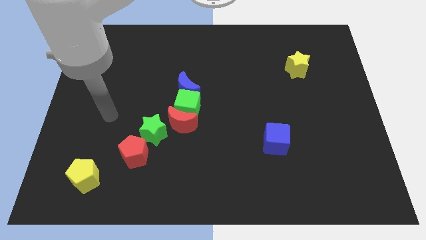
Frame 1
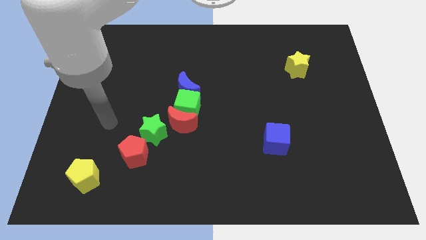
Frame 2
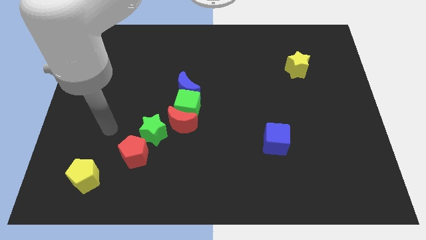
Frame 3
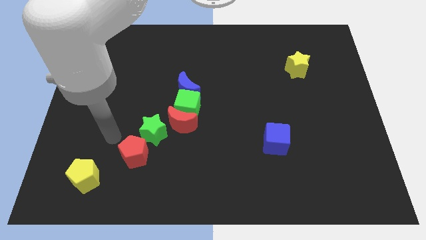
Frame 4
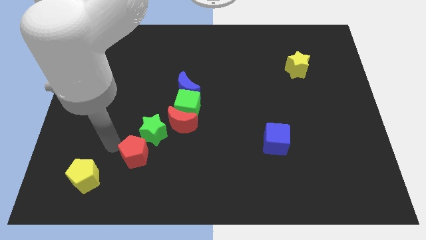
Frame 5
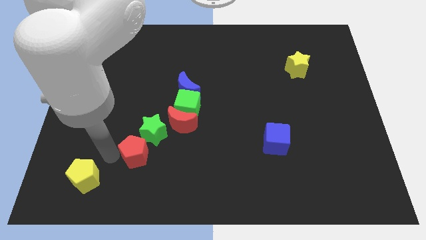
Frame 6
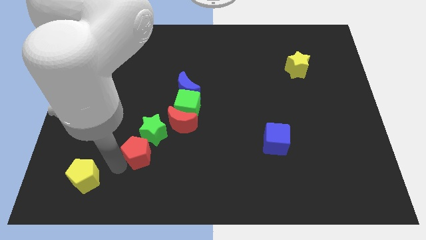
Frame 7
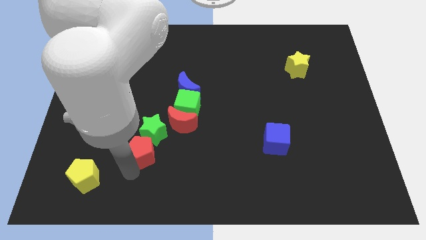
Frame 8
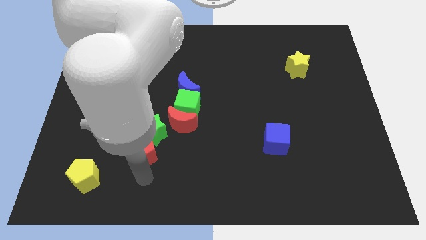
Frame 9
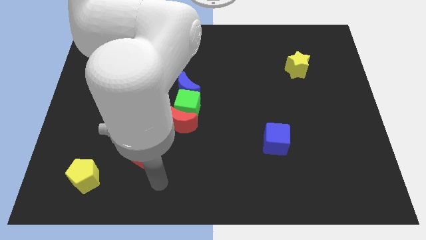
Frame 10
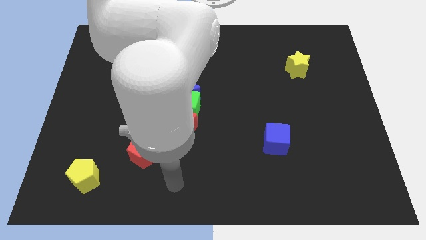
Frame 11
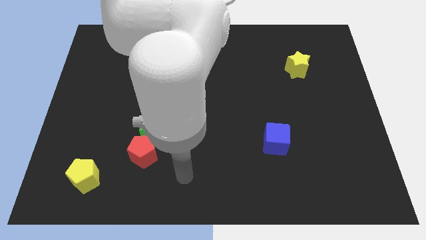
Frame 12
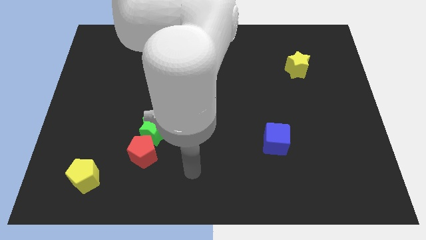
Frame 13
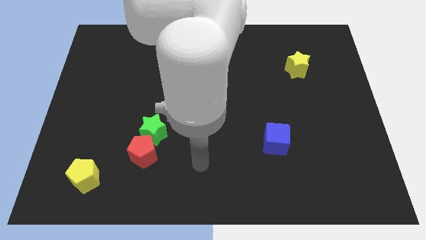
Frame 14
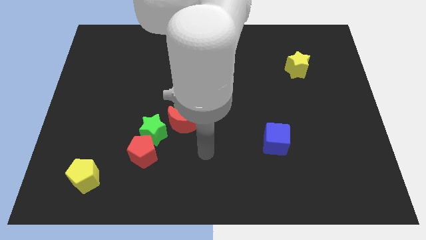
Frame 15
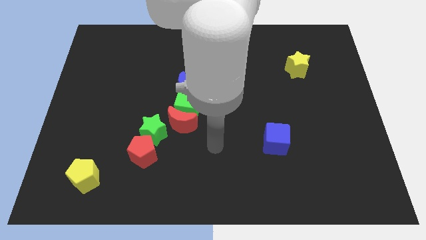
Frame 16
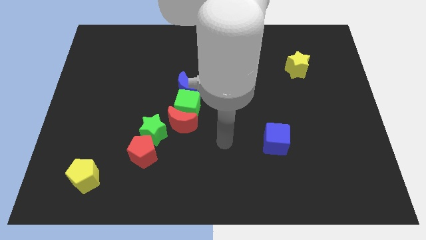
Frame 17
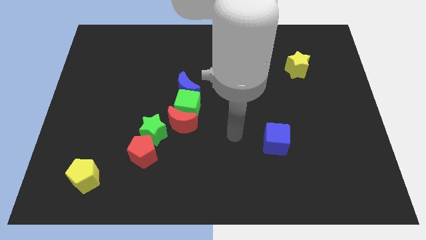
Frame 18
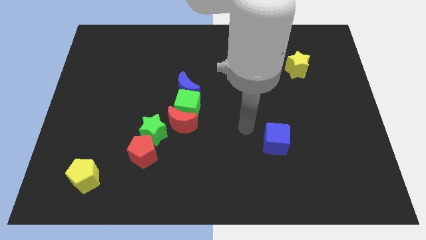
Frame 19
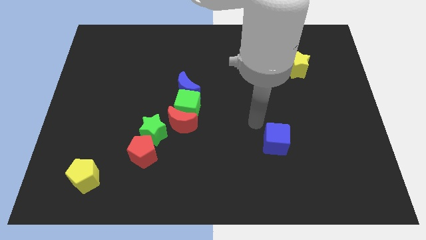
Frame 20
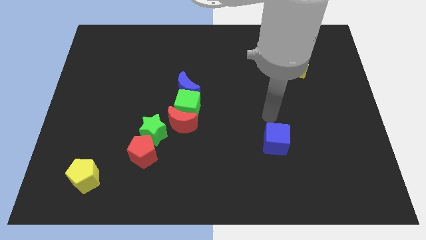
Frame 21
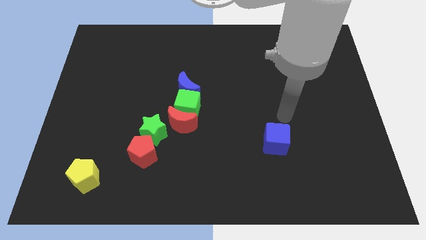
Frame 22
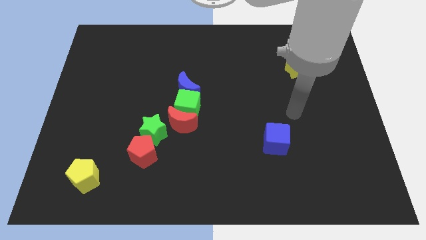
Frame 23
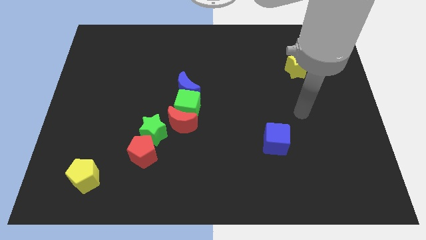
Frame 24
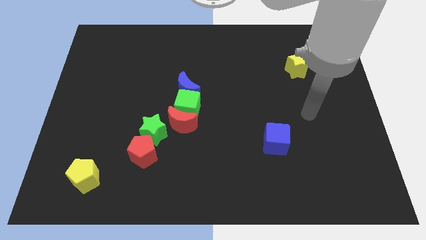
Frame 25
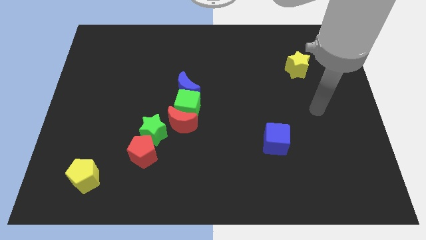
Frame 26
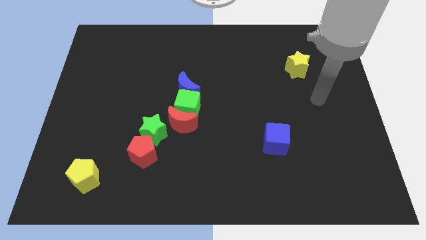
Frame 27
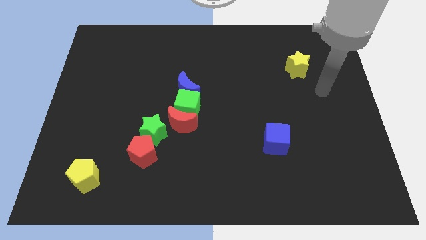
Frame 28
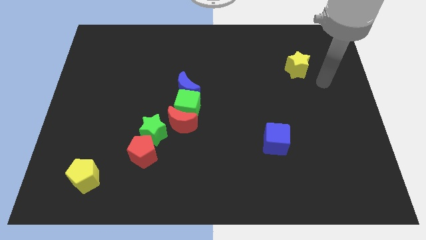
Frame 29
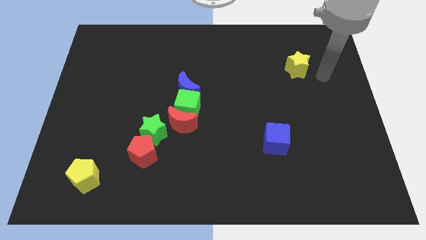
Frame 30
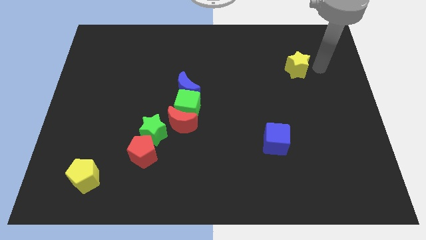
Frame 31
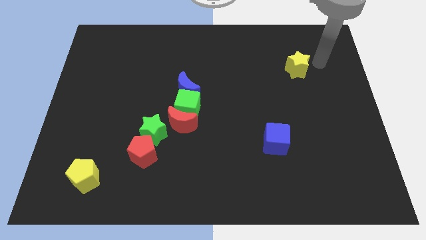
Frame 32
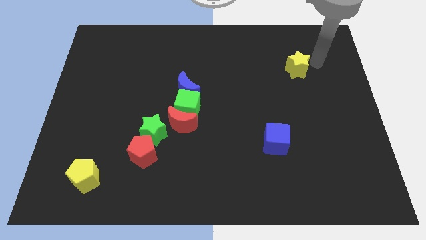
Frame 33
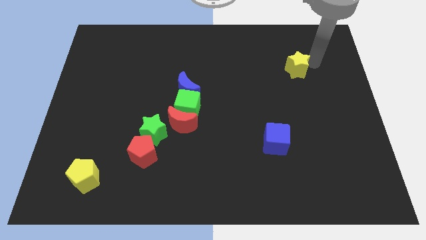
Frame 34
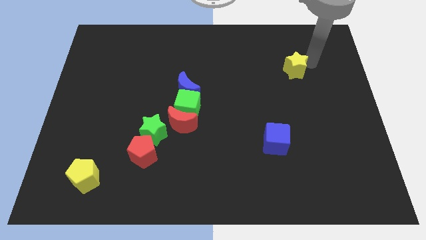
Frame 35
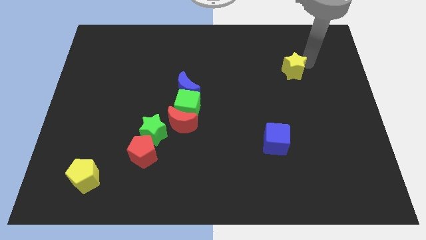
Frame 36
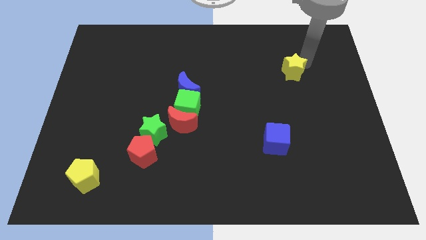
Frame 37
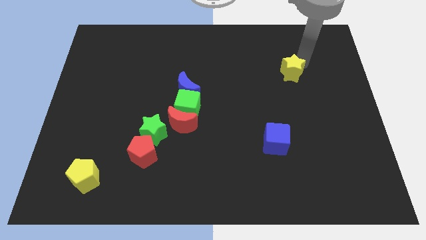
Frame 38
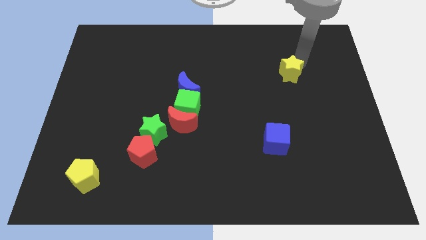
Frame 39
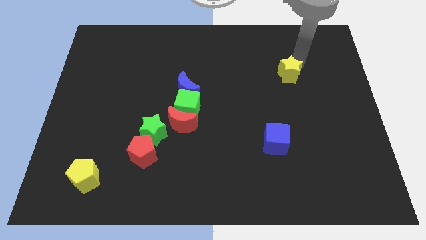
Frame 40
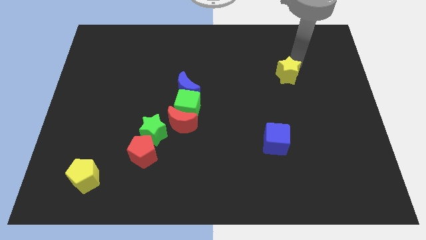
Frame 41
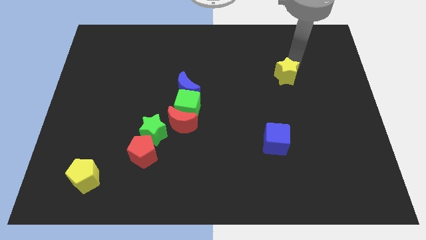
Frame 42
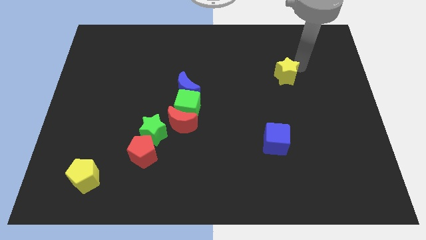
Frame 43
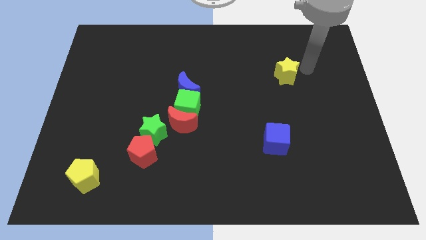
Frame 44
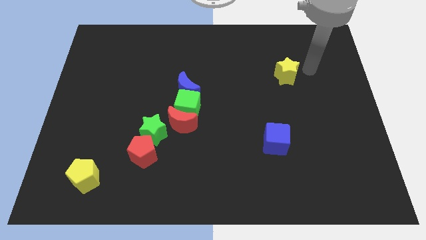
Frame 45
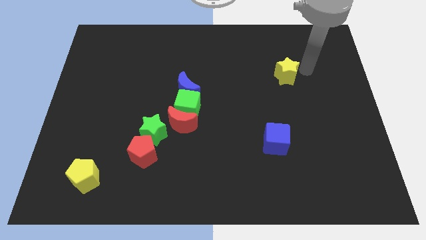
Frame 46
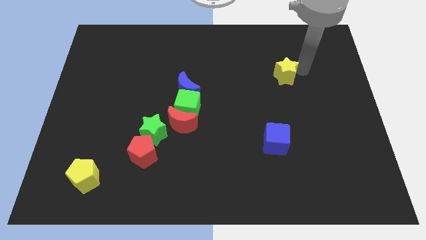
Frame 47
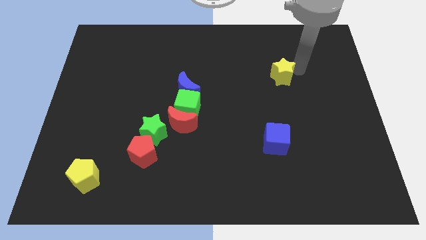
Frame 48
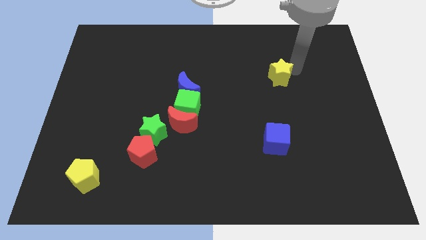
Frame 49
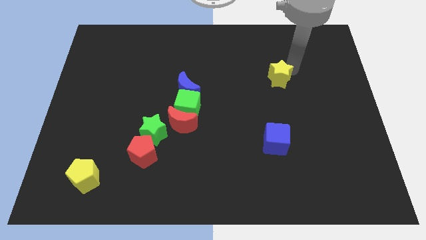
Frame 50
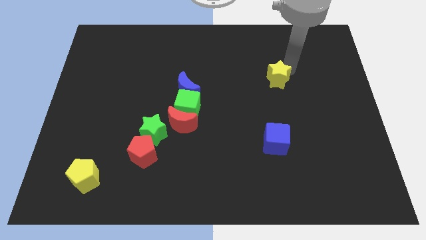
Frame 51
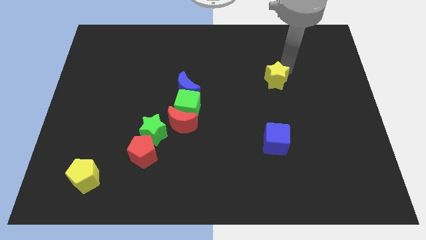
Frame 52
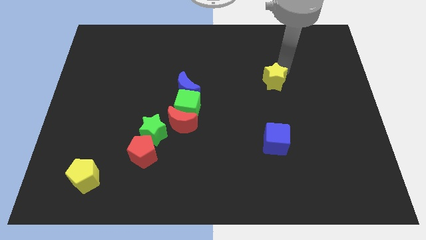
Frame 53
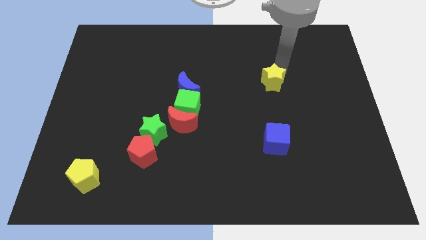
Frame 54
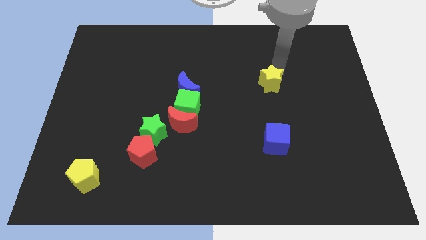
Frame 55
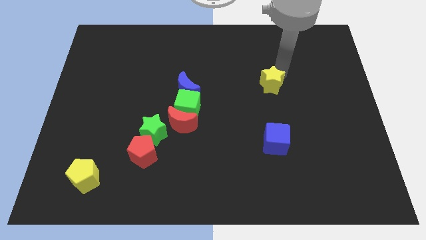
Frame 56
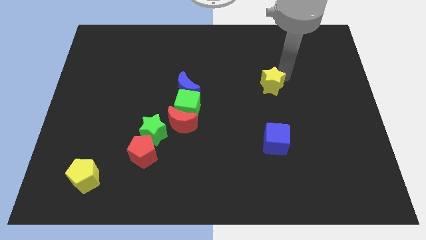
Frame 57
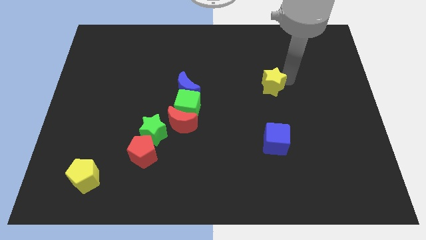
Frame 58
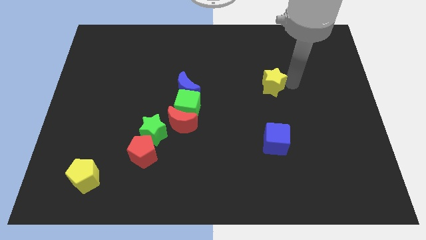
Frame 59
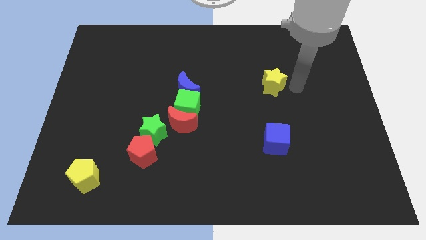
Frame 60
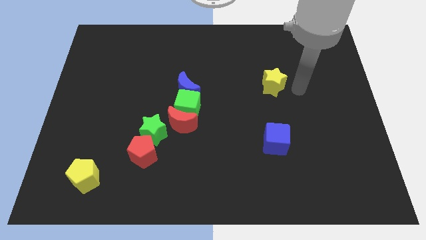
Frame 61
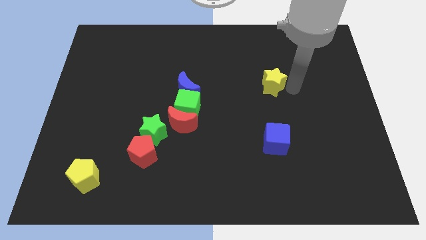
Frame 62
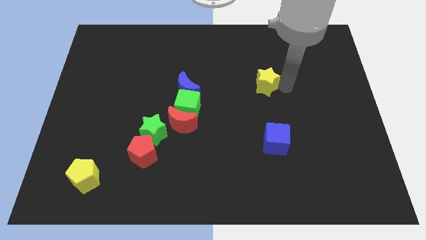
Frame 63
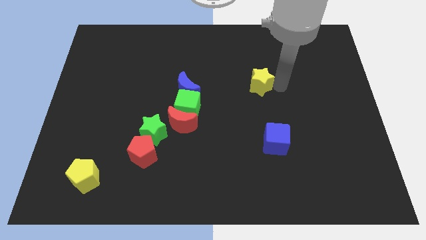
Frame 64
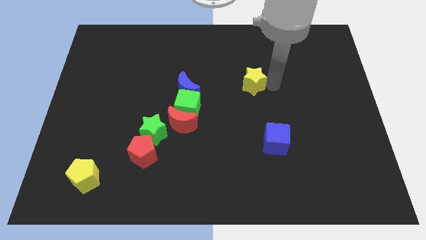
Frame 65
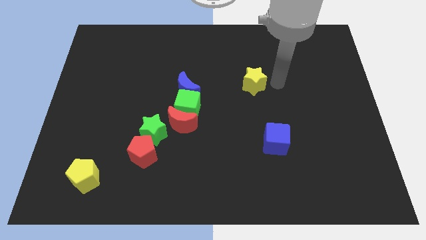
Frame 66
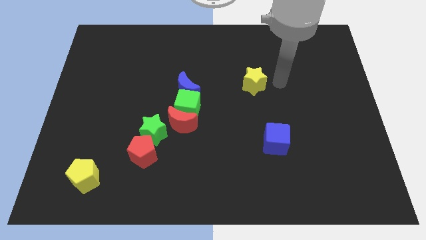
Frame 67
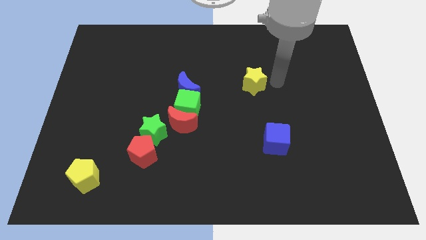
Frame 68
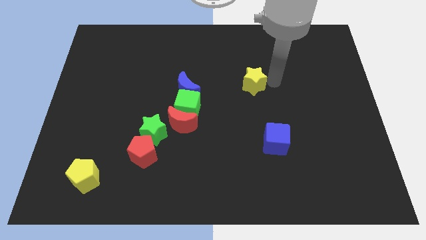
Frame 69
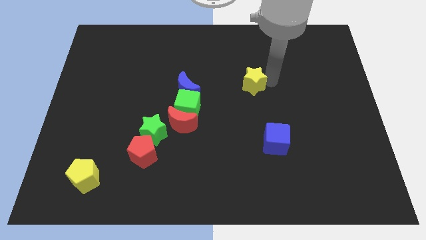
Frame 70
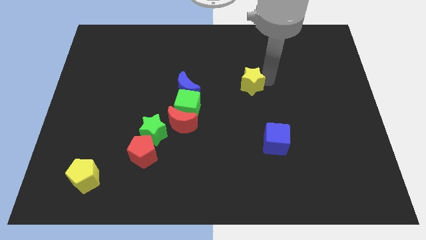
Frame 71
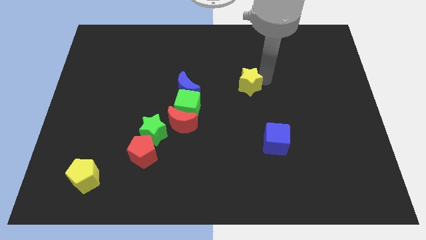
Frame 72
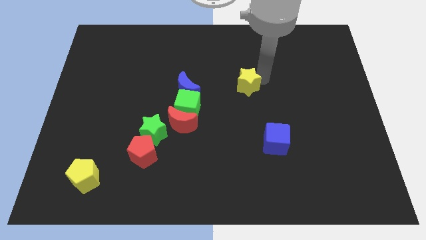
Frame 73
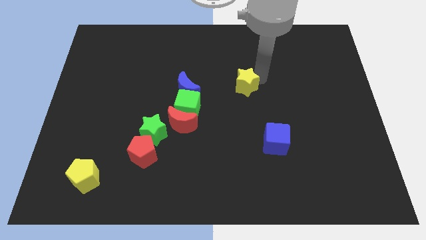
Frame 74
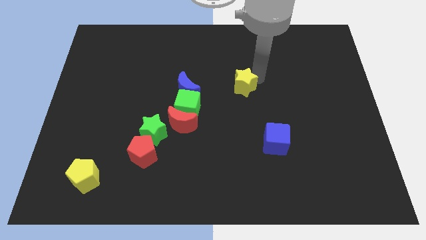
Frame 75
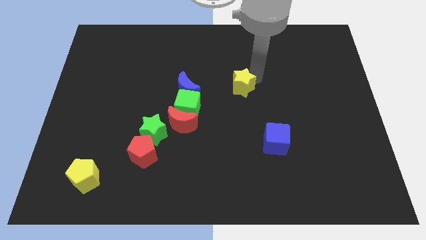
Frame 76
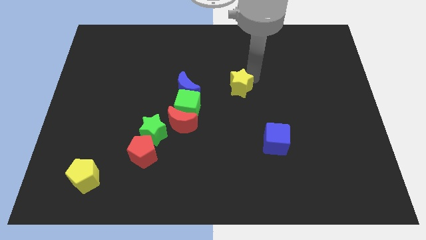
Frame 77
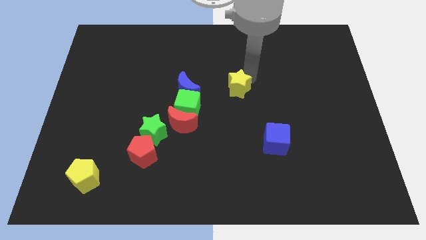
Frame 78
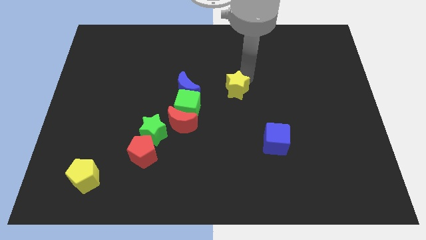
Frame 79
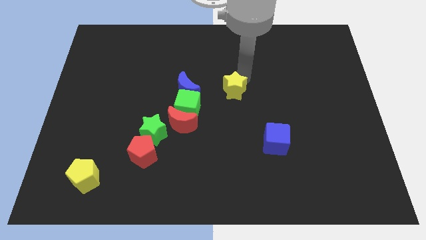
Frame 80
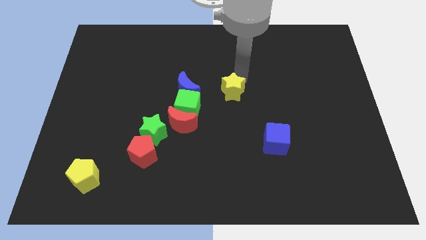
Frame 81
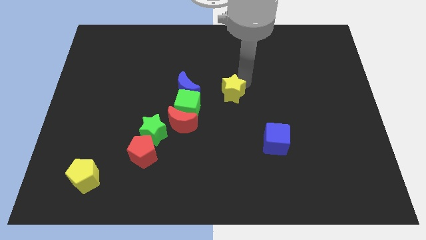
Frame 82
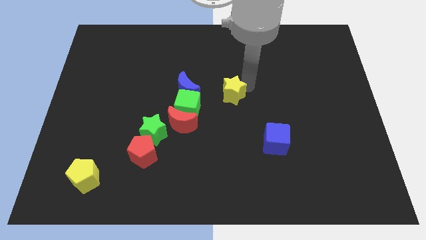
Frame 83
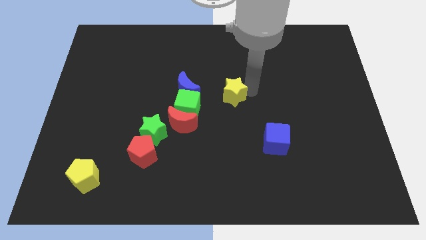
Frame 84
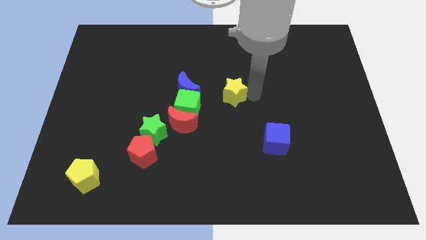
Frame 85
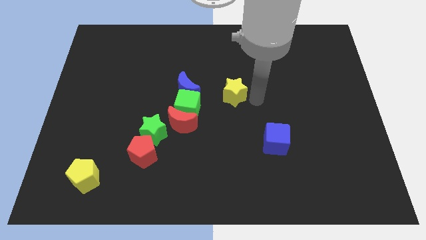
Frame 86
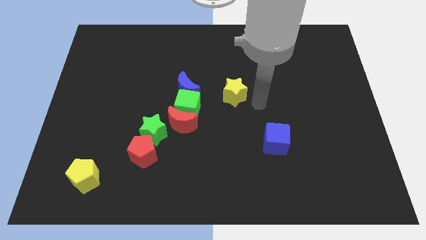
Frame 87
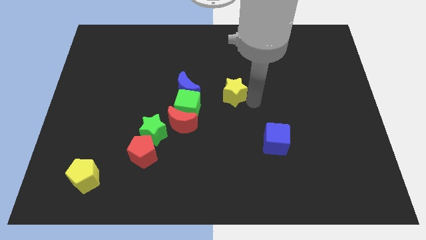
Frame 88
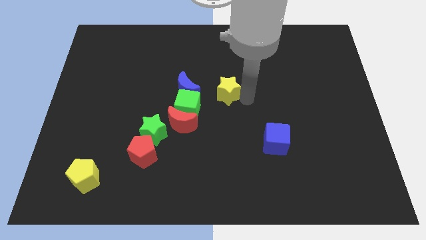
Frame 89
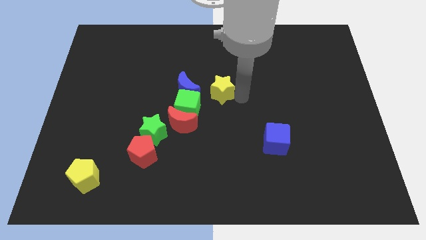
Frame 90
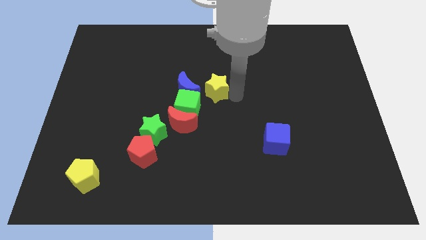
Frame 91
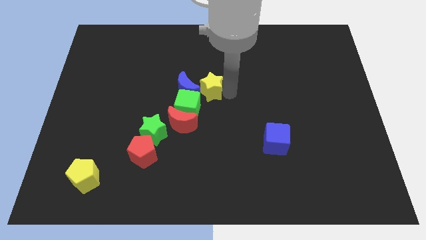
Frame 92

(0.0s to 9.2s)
push the yellow star towards the blue moon
